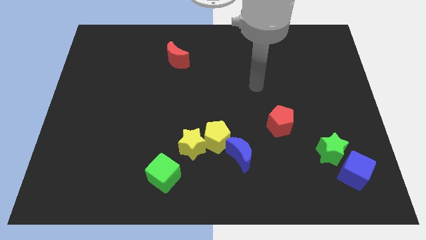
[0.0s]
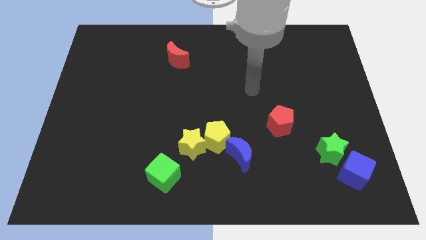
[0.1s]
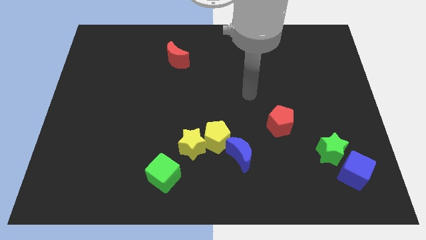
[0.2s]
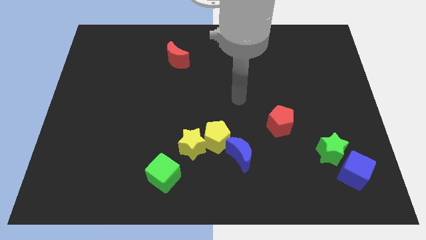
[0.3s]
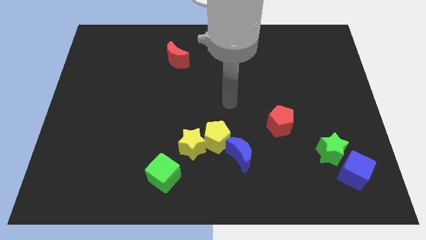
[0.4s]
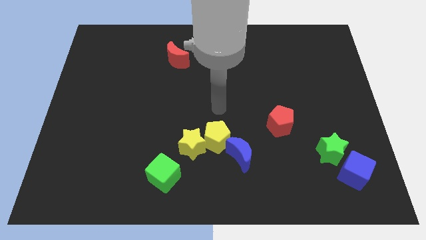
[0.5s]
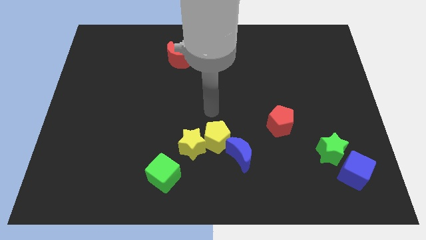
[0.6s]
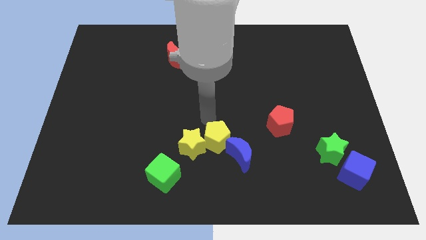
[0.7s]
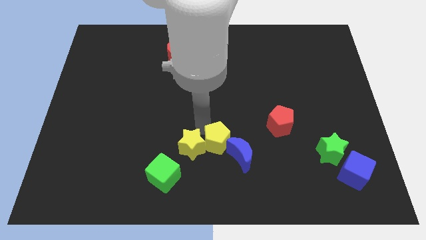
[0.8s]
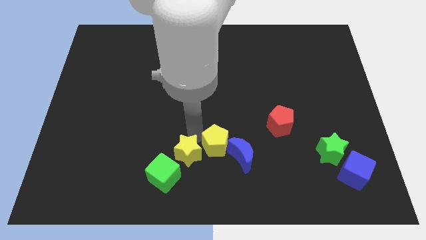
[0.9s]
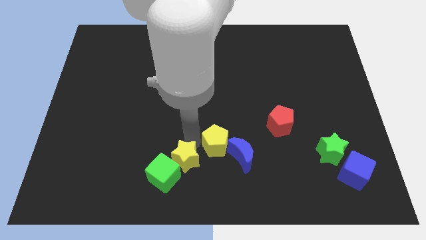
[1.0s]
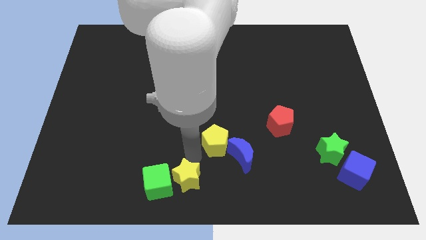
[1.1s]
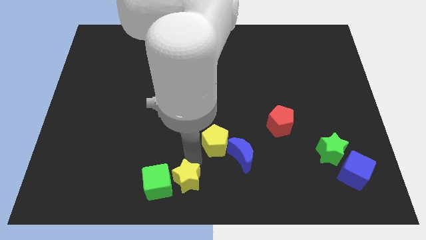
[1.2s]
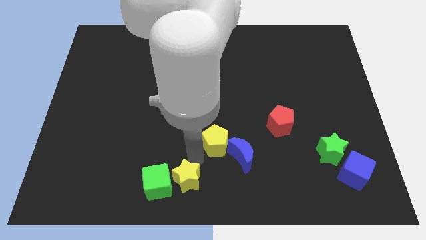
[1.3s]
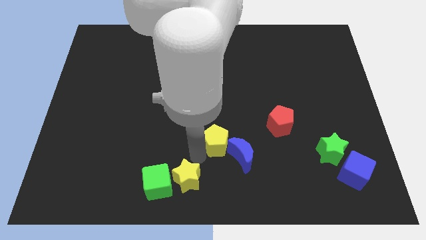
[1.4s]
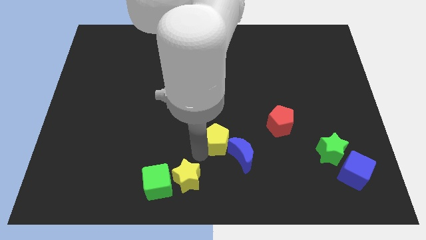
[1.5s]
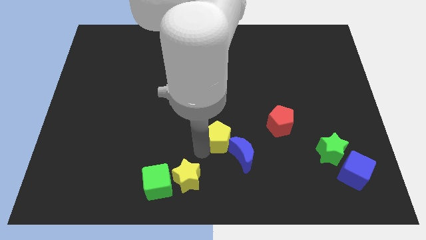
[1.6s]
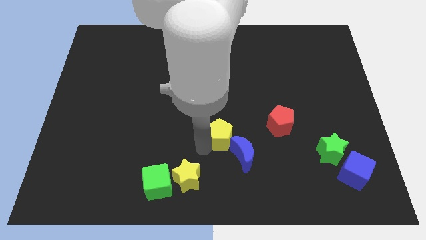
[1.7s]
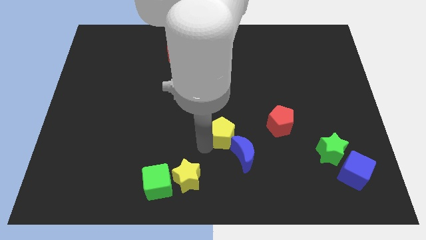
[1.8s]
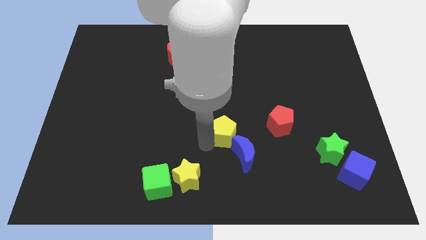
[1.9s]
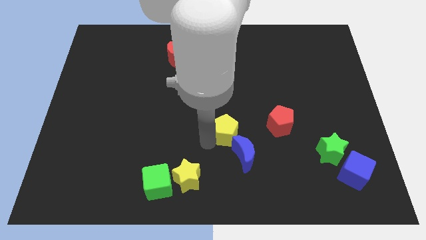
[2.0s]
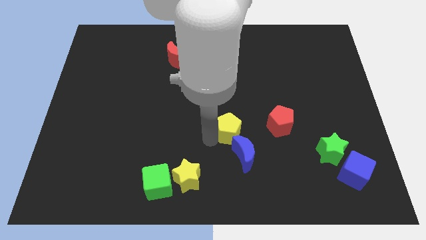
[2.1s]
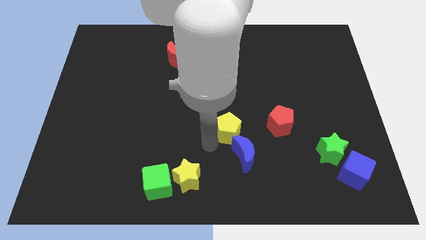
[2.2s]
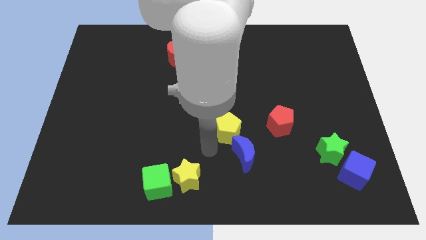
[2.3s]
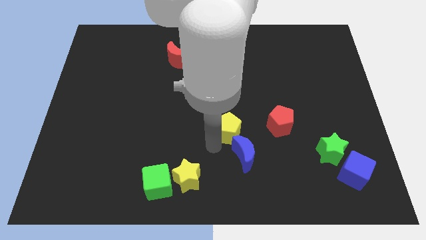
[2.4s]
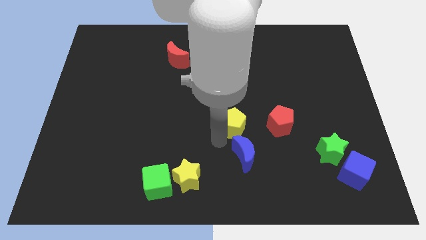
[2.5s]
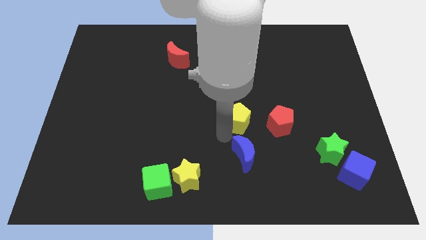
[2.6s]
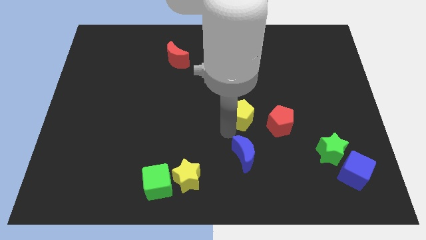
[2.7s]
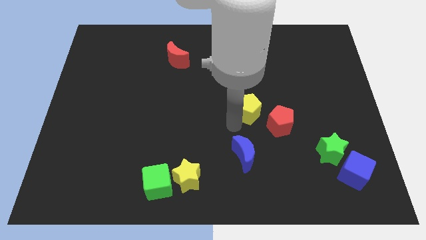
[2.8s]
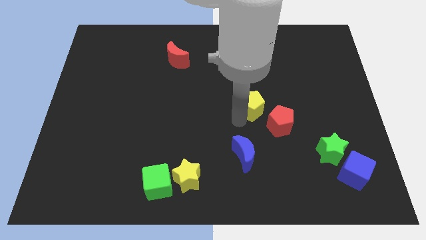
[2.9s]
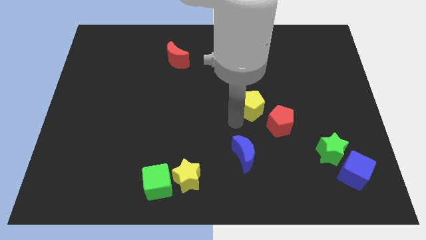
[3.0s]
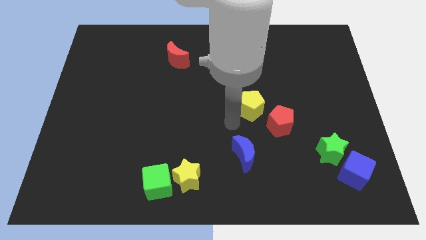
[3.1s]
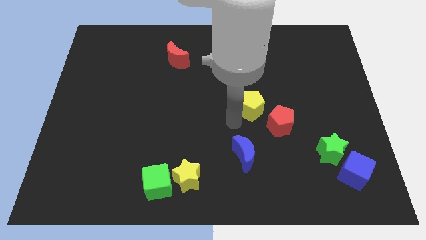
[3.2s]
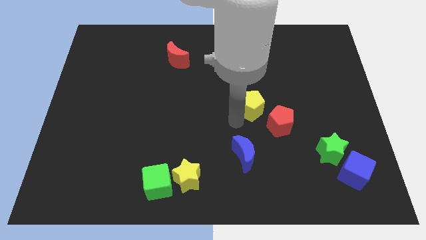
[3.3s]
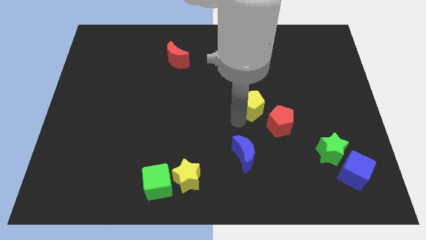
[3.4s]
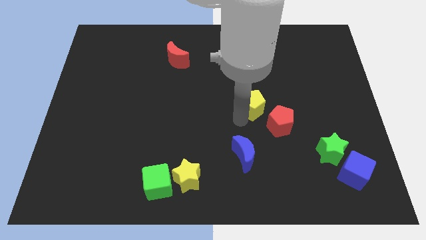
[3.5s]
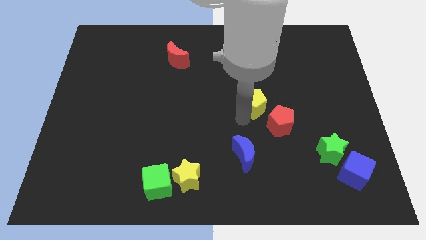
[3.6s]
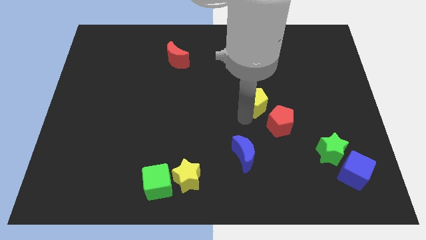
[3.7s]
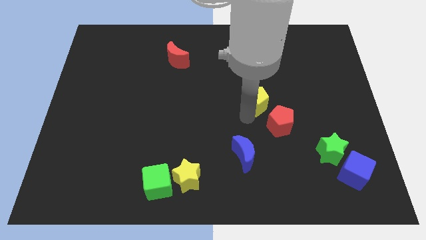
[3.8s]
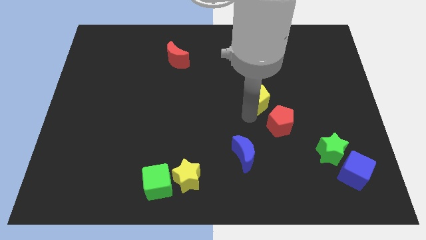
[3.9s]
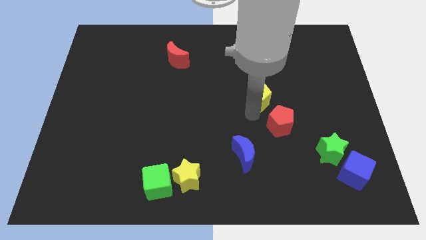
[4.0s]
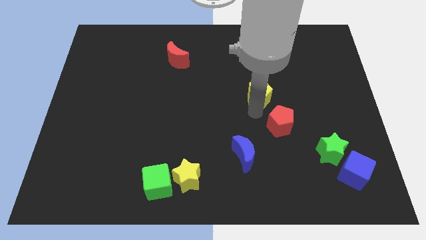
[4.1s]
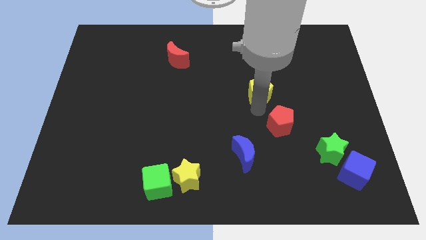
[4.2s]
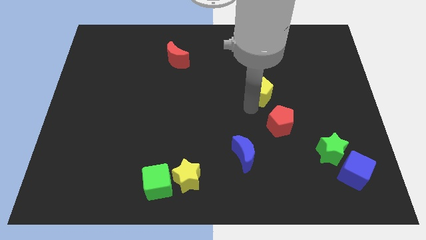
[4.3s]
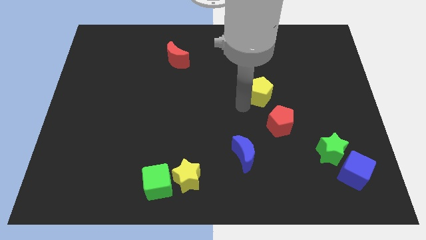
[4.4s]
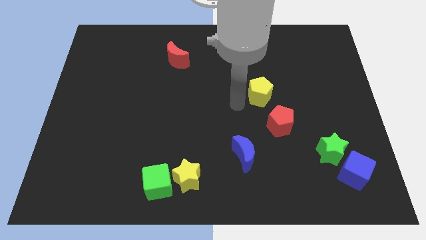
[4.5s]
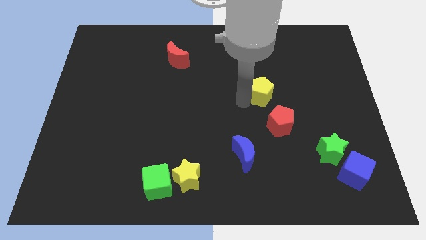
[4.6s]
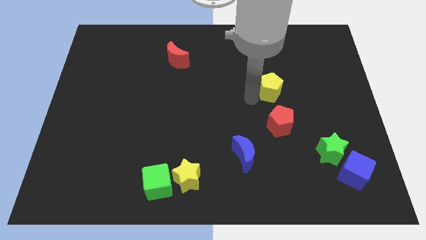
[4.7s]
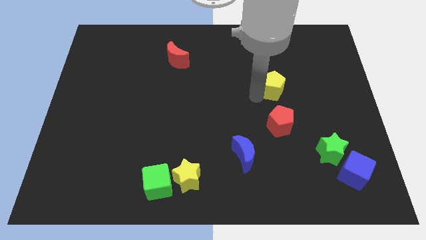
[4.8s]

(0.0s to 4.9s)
move the yellow pentagon diagonally up and to the right

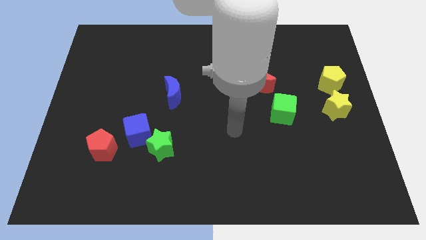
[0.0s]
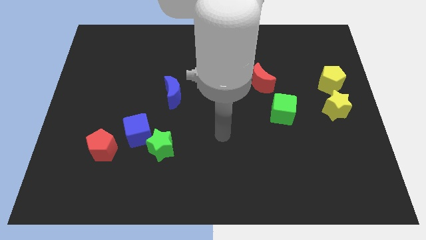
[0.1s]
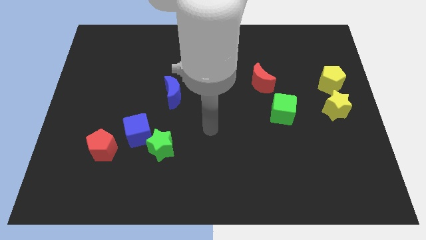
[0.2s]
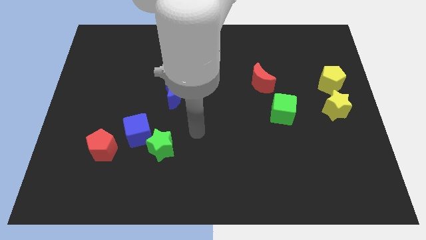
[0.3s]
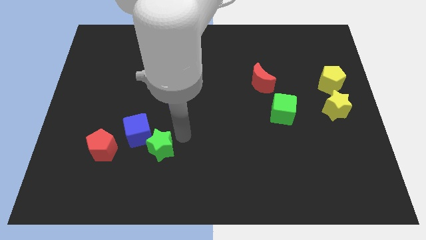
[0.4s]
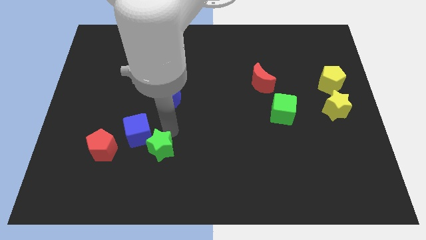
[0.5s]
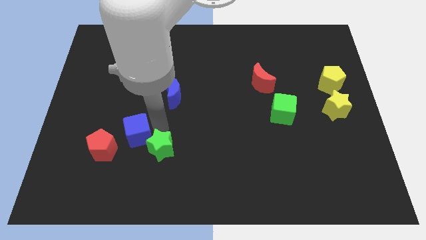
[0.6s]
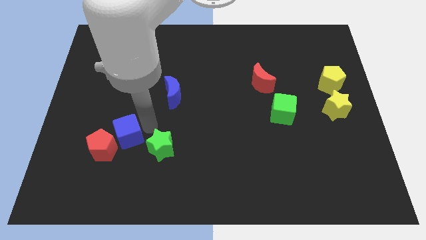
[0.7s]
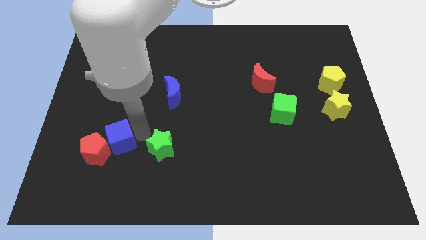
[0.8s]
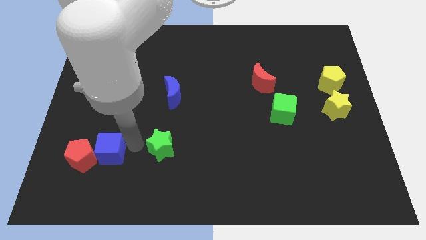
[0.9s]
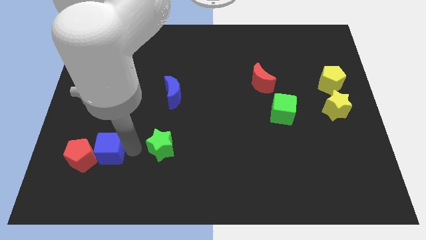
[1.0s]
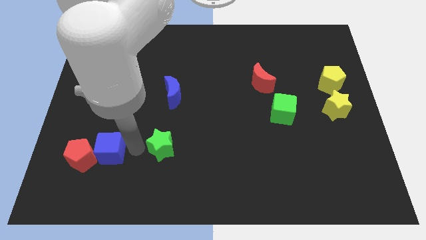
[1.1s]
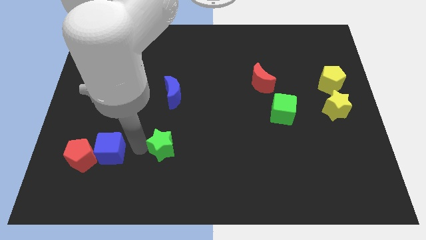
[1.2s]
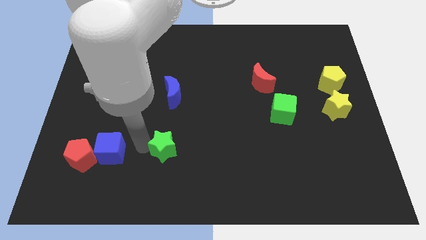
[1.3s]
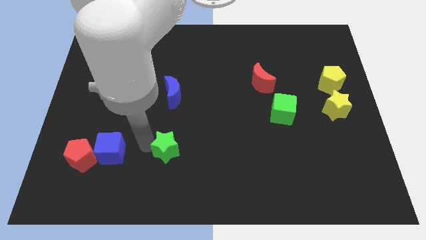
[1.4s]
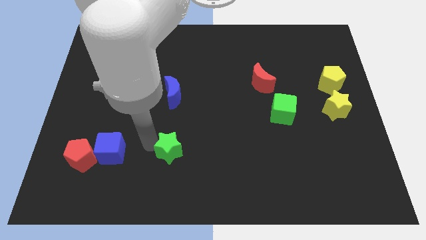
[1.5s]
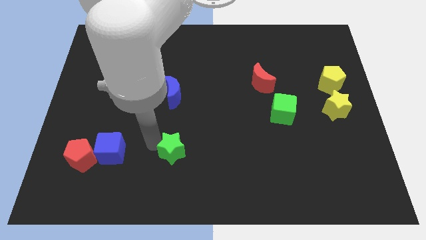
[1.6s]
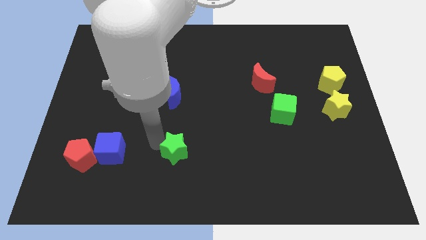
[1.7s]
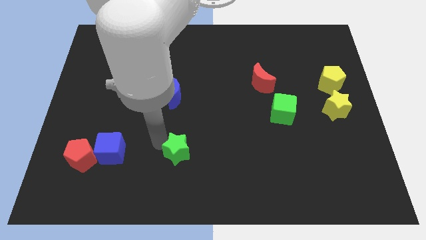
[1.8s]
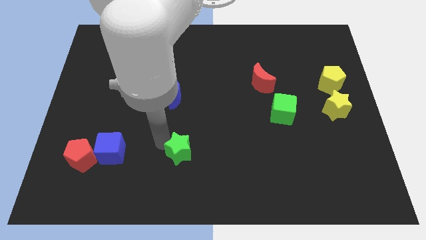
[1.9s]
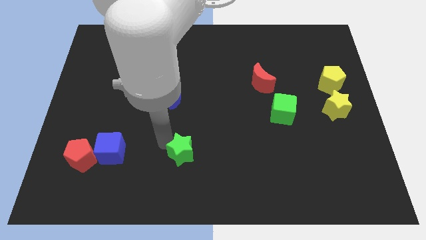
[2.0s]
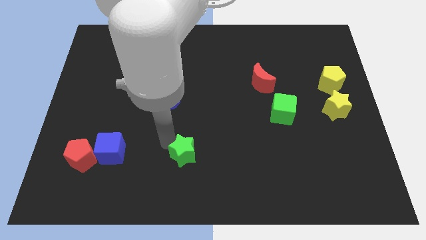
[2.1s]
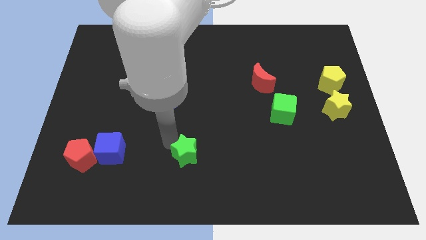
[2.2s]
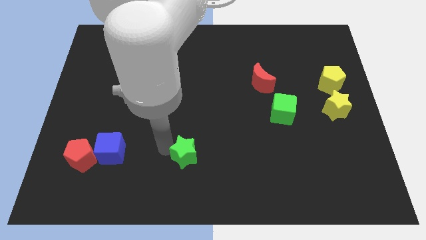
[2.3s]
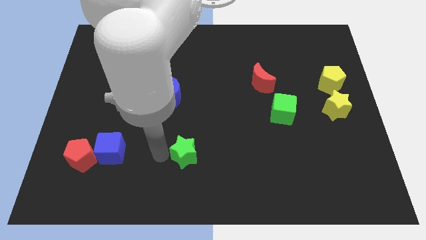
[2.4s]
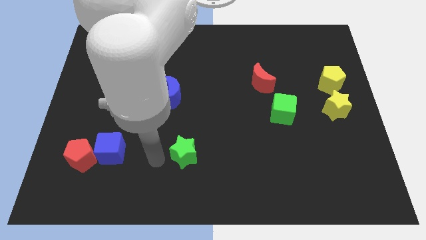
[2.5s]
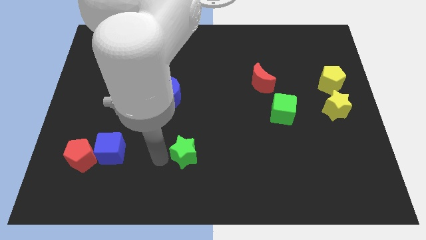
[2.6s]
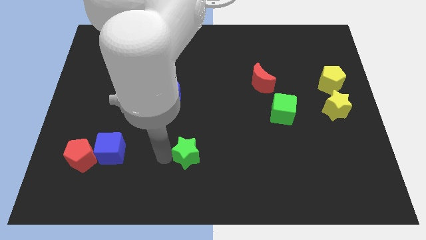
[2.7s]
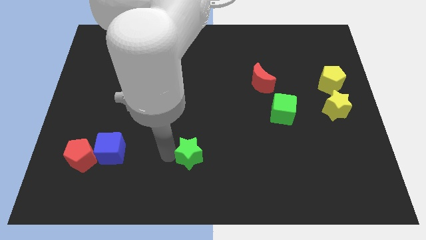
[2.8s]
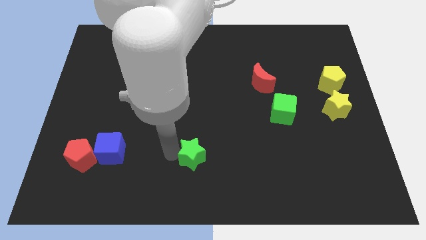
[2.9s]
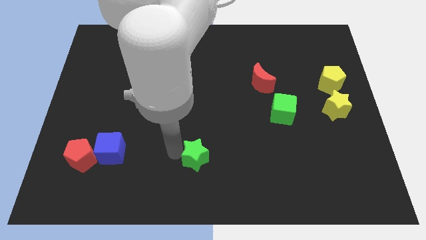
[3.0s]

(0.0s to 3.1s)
slightly move the green star to the right
